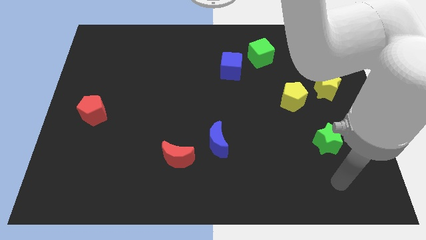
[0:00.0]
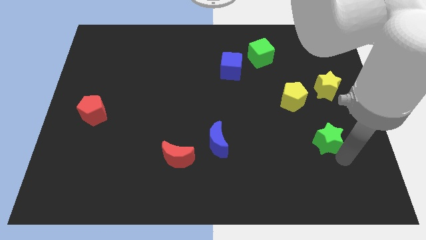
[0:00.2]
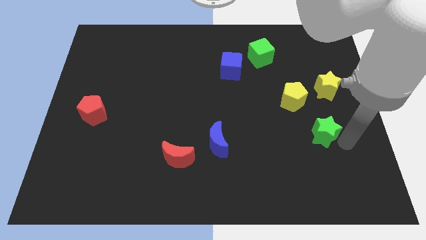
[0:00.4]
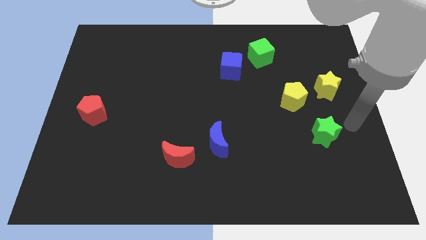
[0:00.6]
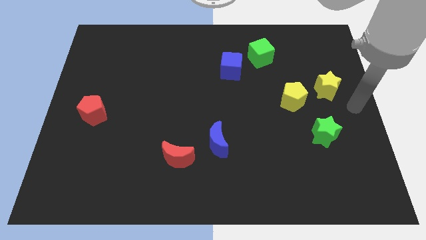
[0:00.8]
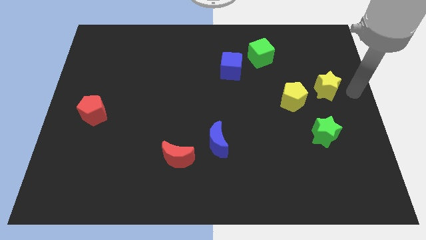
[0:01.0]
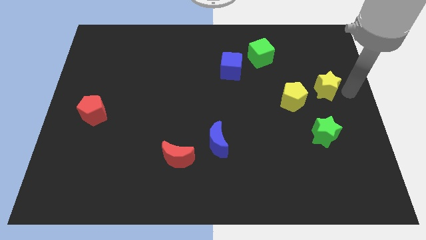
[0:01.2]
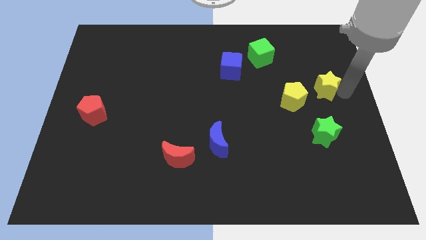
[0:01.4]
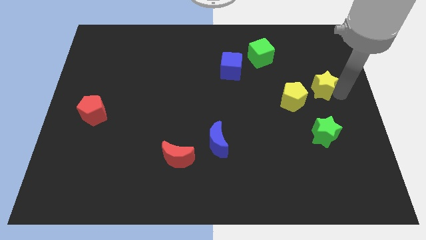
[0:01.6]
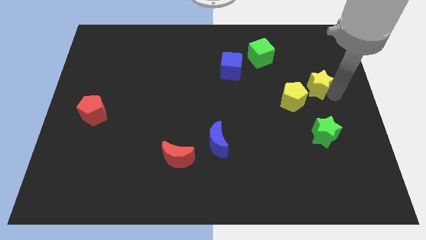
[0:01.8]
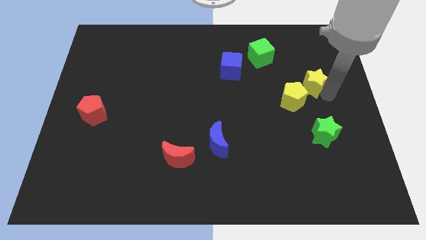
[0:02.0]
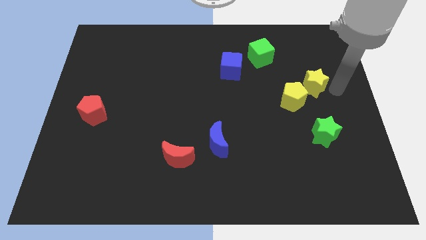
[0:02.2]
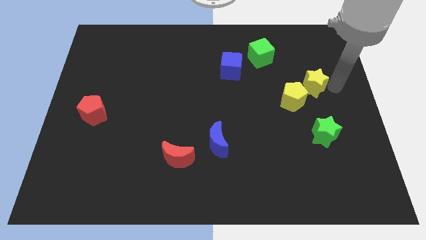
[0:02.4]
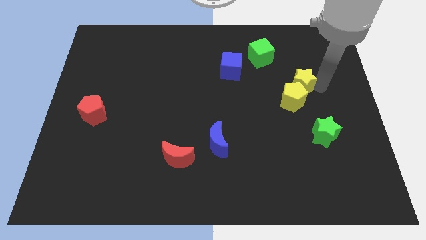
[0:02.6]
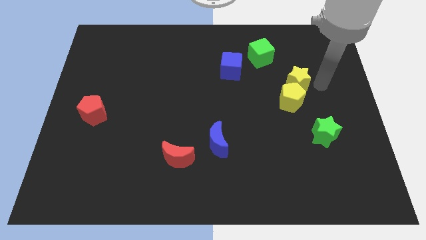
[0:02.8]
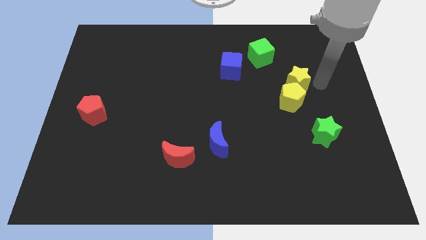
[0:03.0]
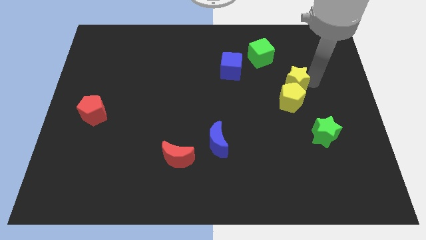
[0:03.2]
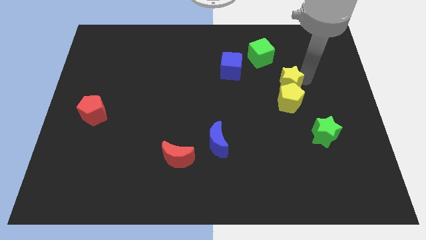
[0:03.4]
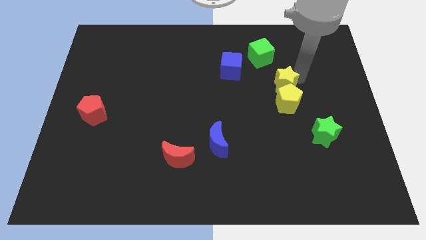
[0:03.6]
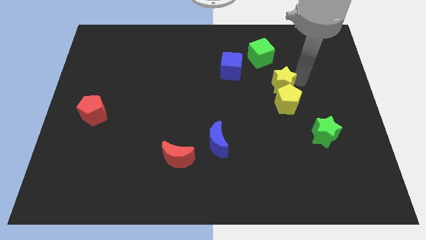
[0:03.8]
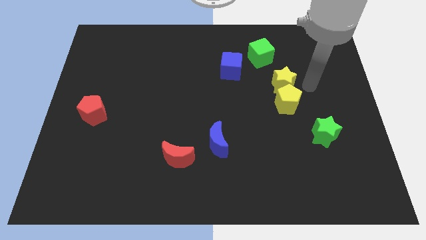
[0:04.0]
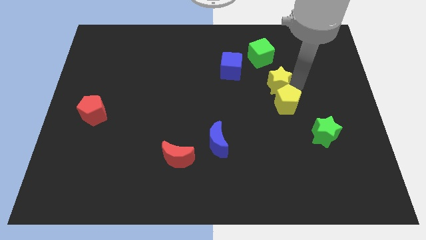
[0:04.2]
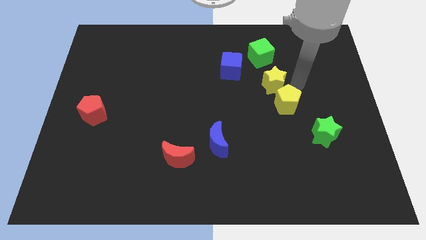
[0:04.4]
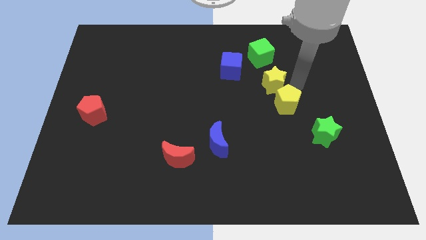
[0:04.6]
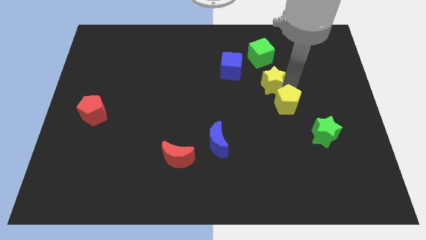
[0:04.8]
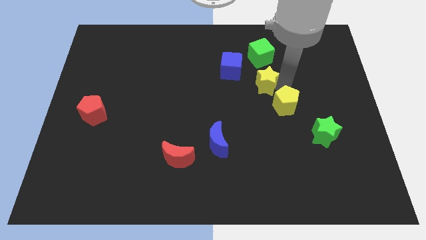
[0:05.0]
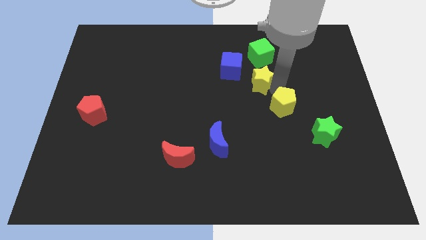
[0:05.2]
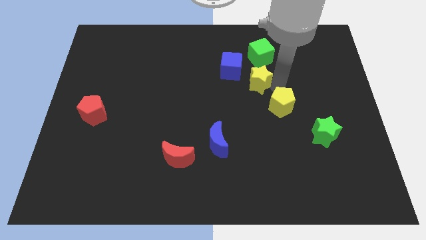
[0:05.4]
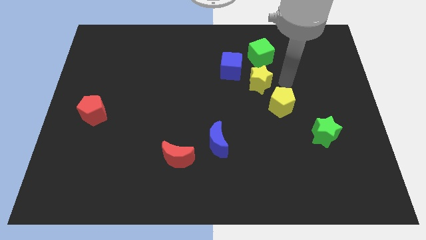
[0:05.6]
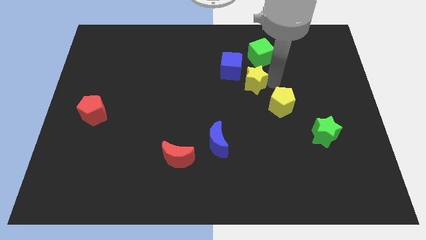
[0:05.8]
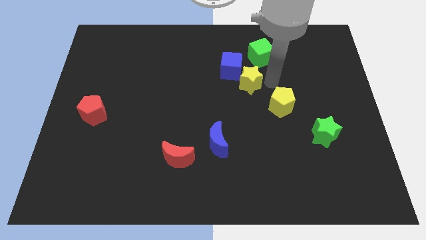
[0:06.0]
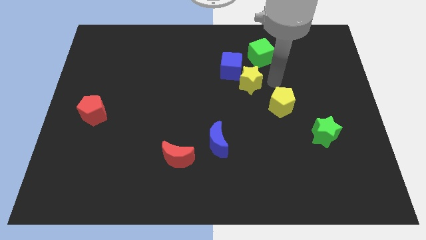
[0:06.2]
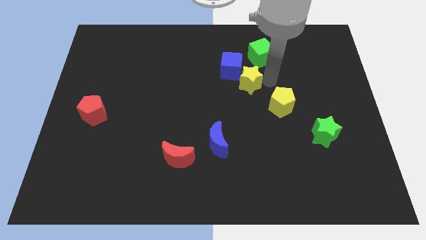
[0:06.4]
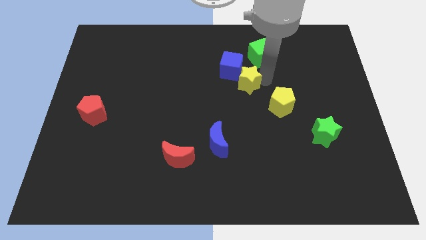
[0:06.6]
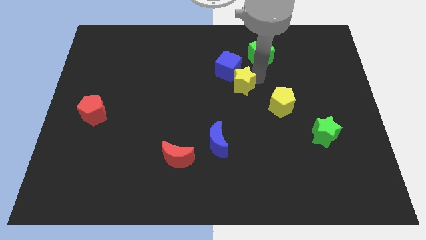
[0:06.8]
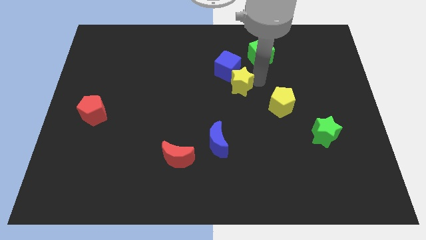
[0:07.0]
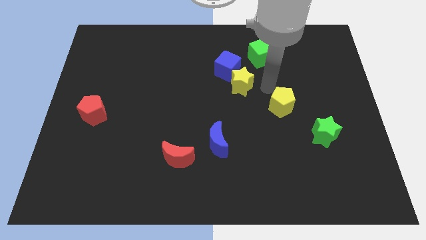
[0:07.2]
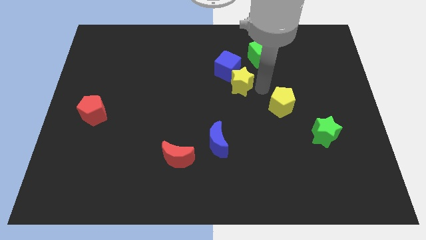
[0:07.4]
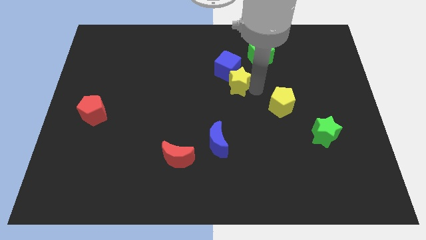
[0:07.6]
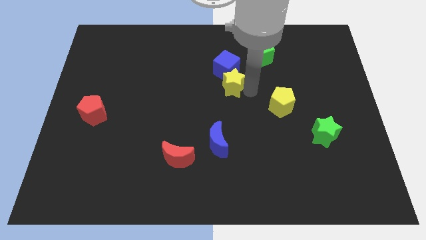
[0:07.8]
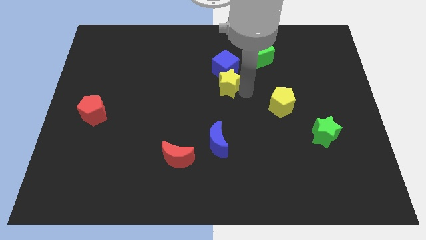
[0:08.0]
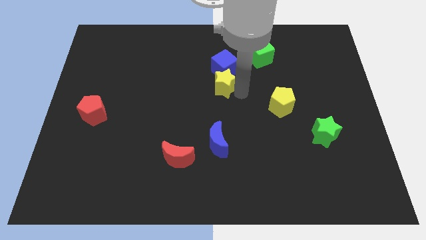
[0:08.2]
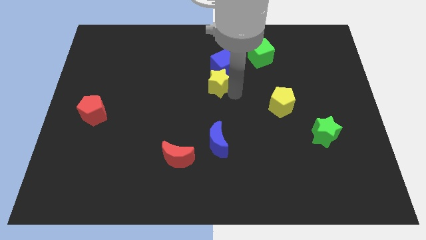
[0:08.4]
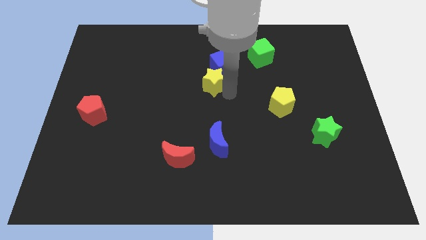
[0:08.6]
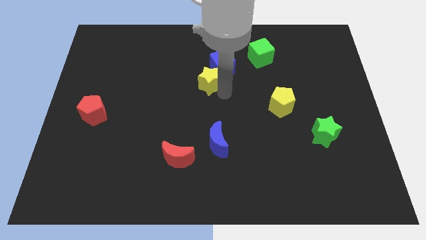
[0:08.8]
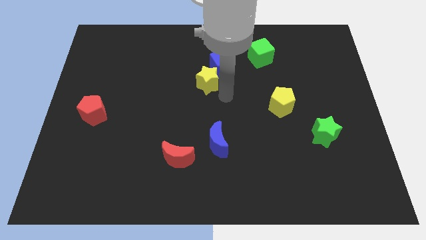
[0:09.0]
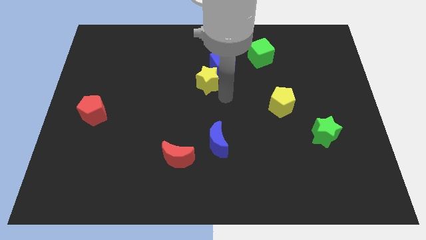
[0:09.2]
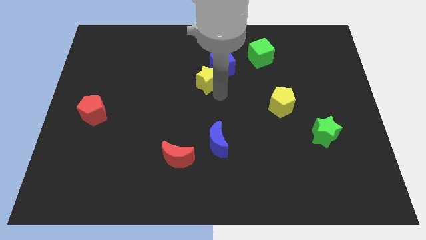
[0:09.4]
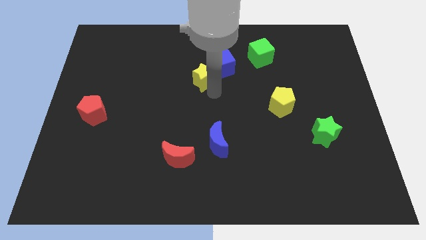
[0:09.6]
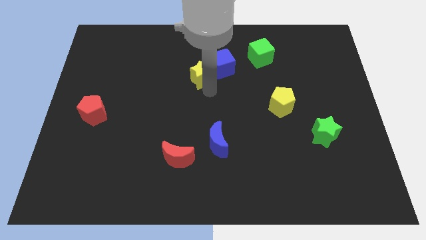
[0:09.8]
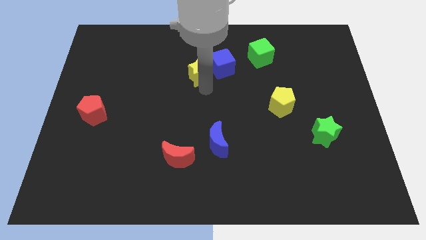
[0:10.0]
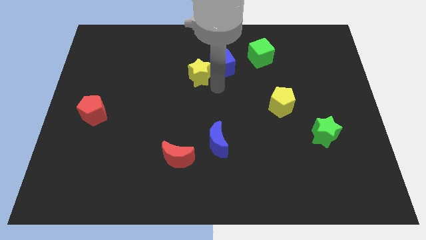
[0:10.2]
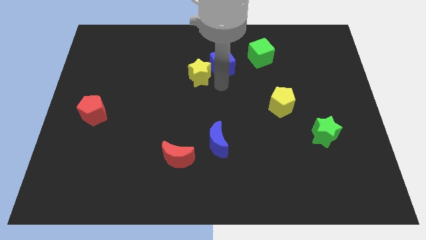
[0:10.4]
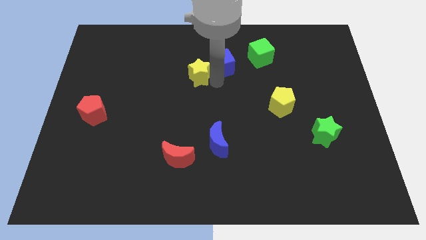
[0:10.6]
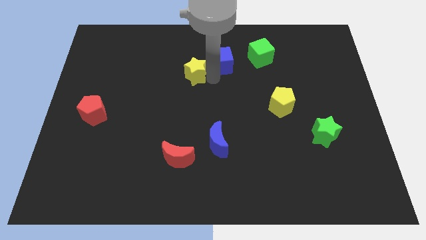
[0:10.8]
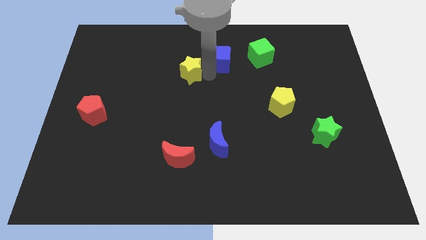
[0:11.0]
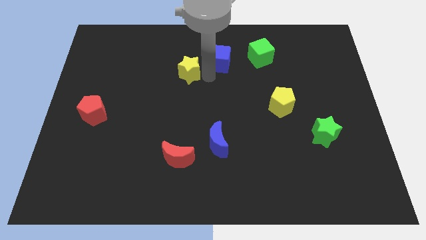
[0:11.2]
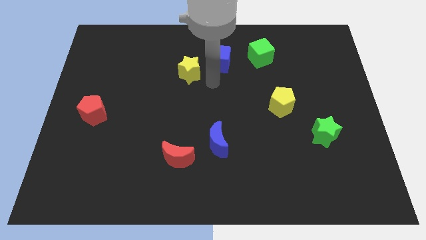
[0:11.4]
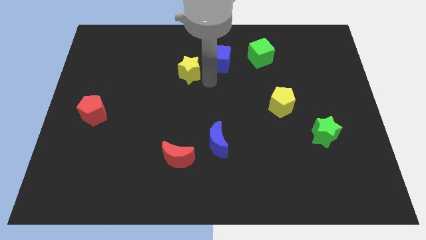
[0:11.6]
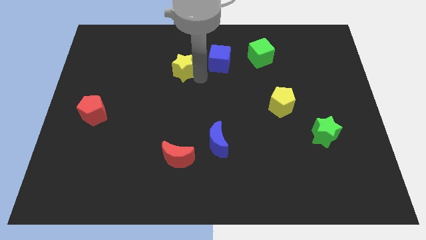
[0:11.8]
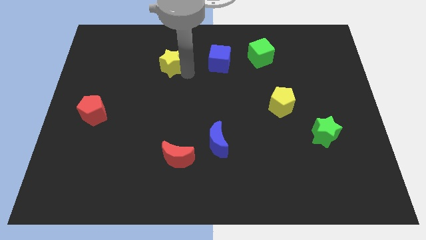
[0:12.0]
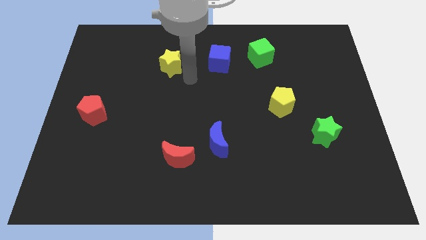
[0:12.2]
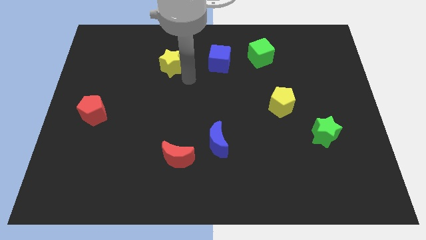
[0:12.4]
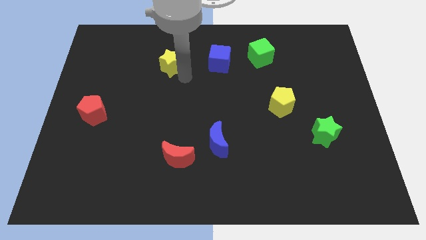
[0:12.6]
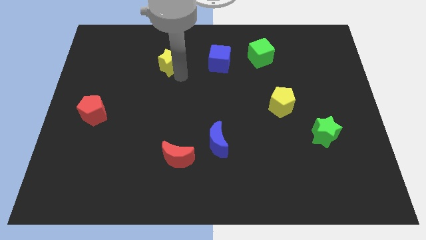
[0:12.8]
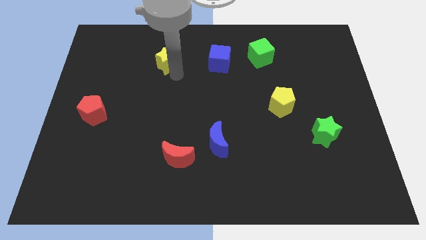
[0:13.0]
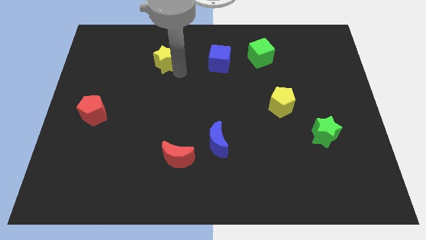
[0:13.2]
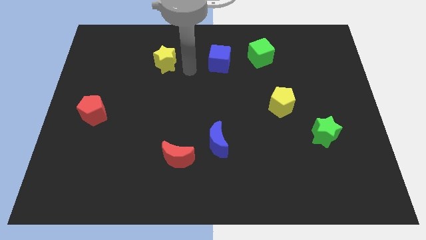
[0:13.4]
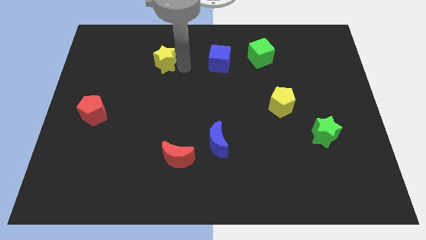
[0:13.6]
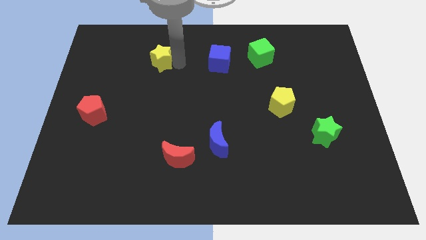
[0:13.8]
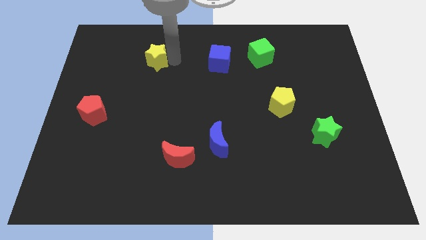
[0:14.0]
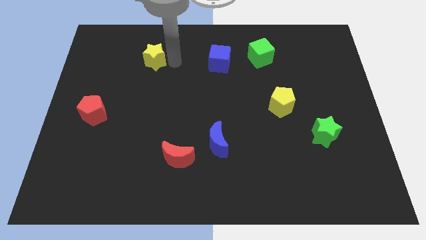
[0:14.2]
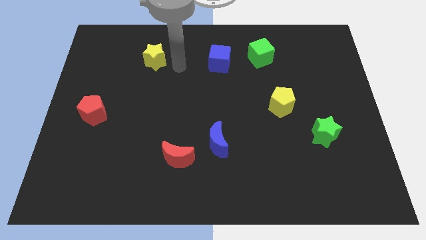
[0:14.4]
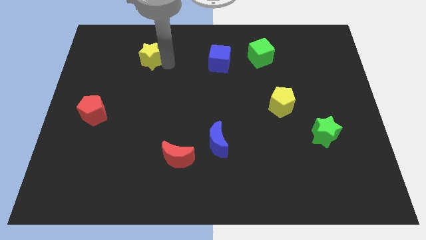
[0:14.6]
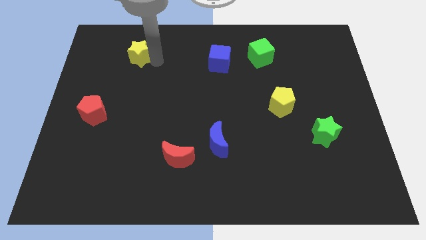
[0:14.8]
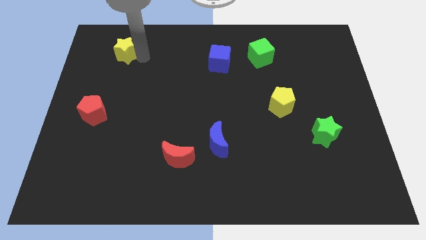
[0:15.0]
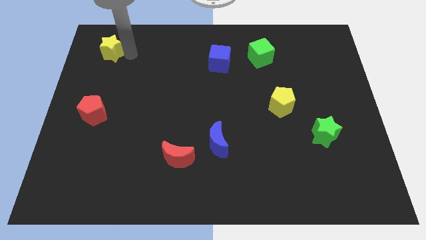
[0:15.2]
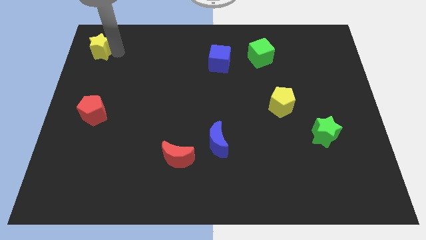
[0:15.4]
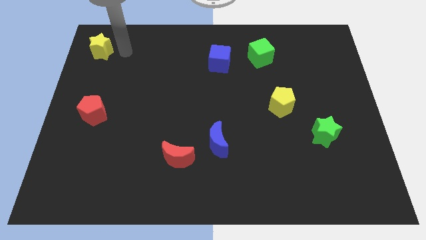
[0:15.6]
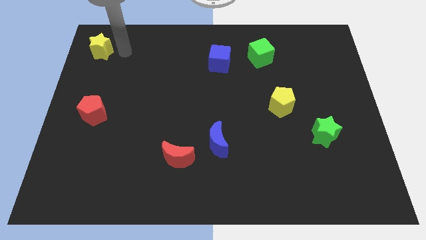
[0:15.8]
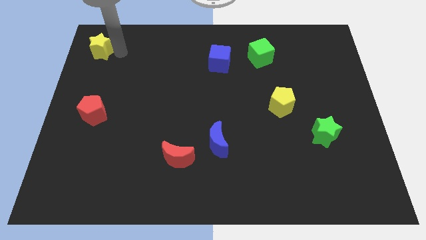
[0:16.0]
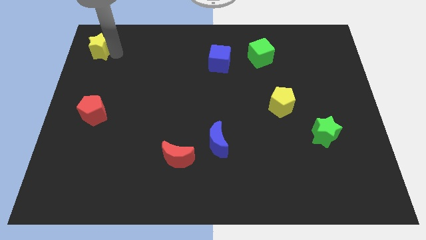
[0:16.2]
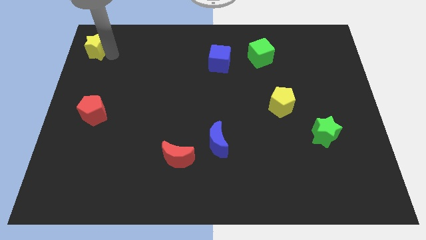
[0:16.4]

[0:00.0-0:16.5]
put the yellow star to the top left corner
